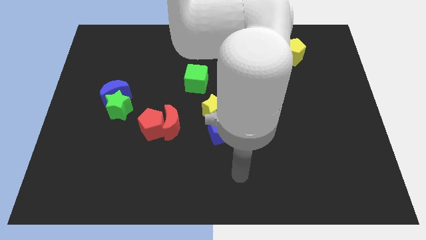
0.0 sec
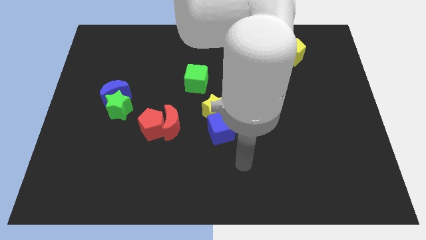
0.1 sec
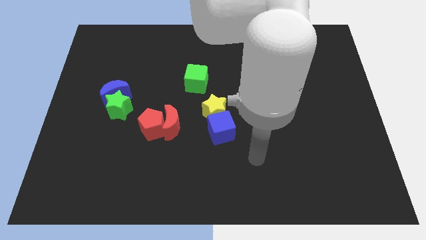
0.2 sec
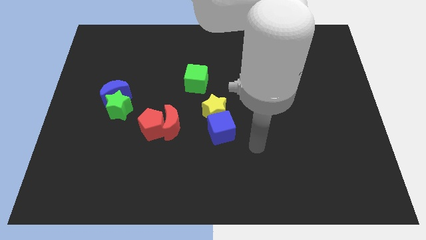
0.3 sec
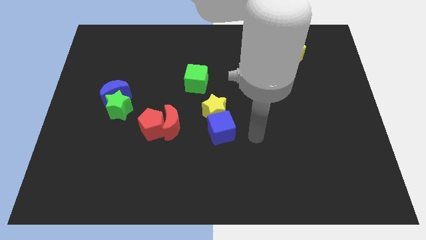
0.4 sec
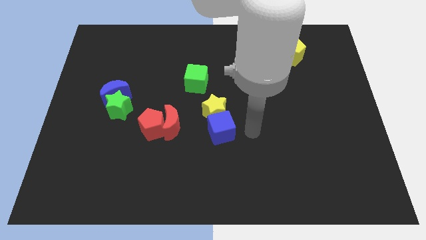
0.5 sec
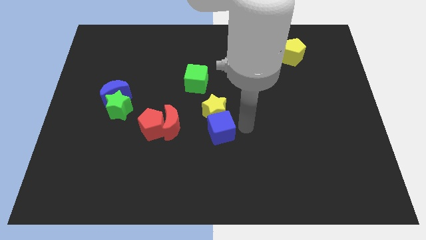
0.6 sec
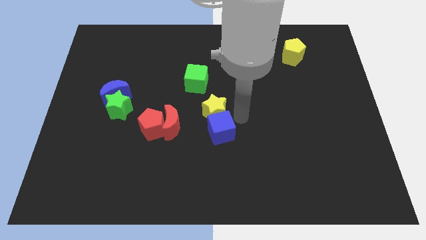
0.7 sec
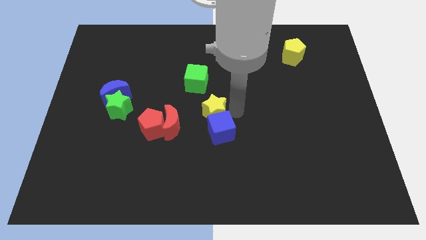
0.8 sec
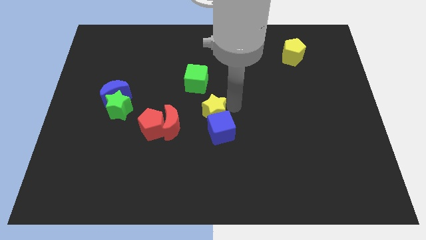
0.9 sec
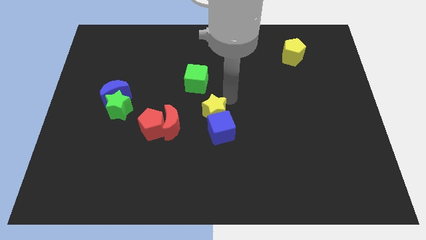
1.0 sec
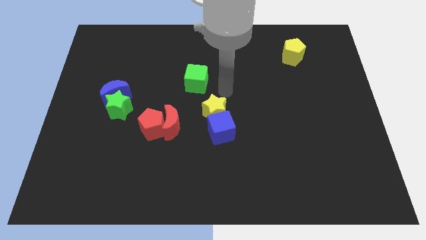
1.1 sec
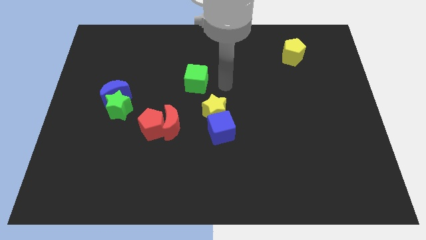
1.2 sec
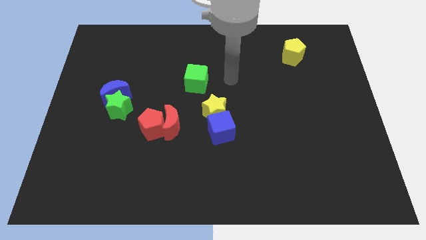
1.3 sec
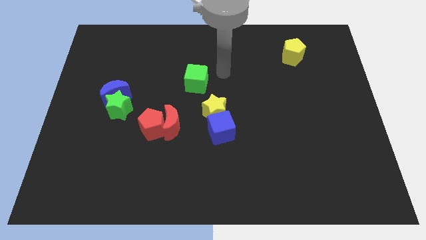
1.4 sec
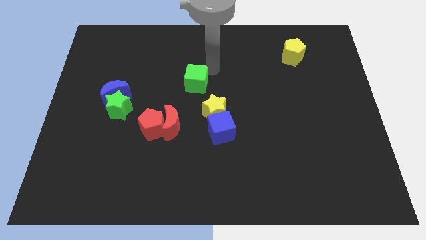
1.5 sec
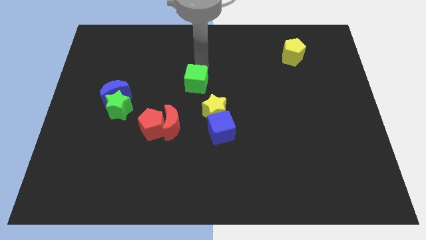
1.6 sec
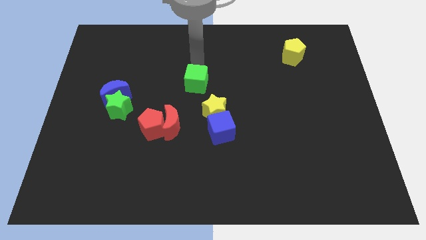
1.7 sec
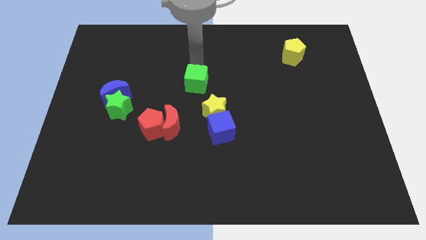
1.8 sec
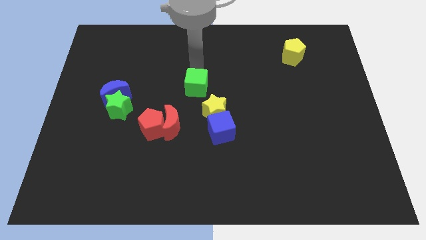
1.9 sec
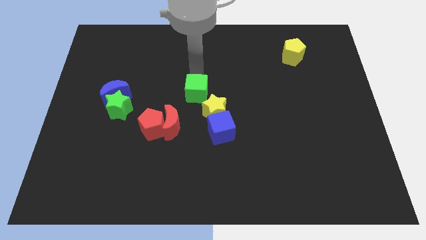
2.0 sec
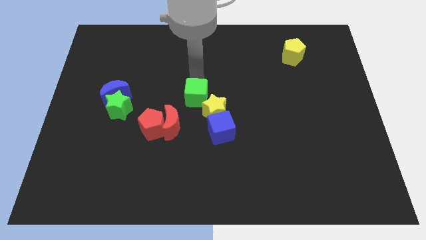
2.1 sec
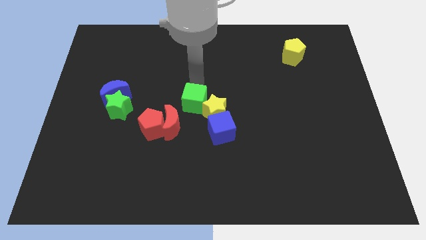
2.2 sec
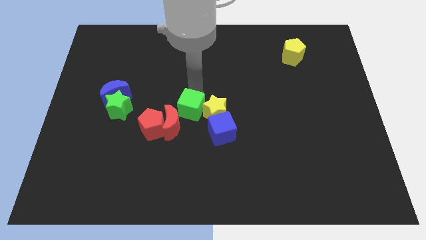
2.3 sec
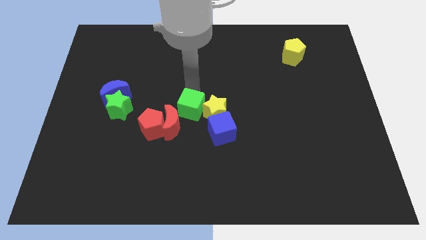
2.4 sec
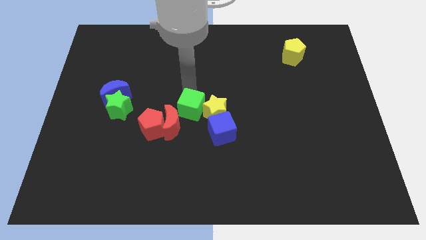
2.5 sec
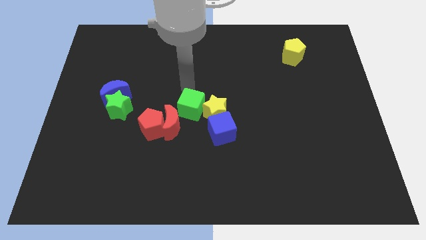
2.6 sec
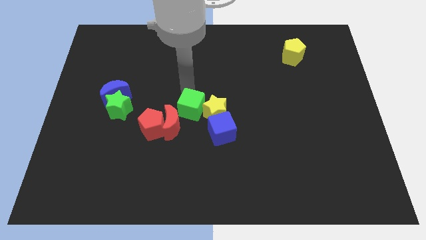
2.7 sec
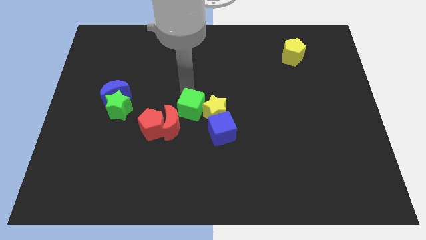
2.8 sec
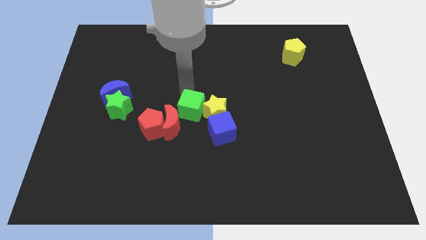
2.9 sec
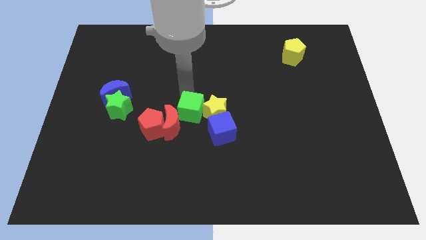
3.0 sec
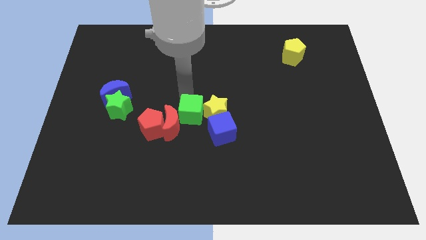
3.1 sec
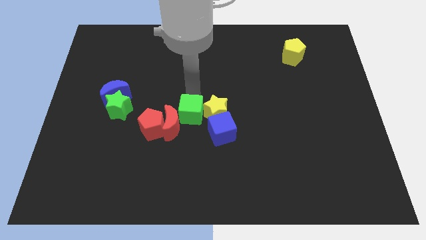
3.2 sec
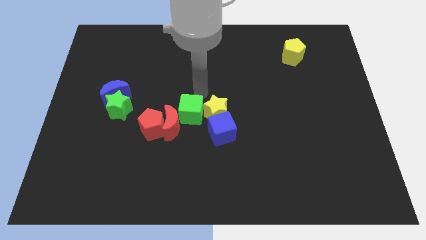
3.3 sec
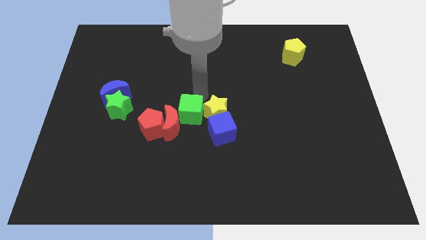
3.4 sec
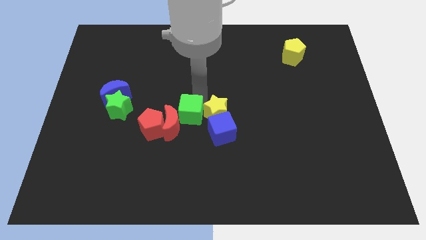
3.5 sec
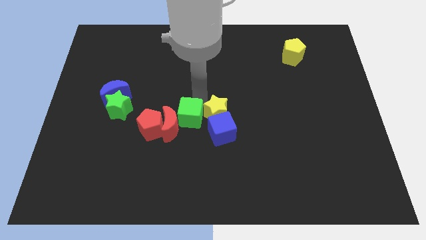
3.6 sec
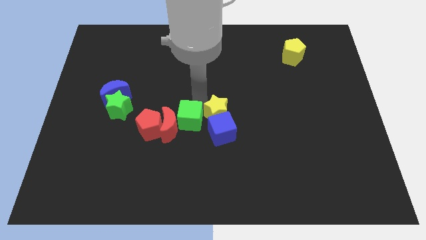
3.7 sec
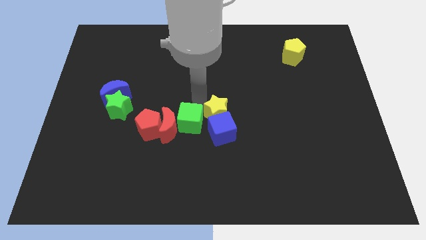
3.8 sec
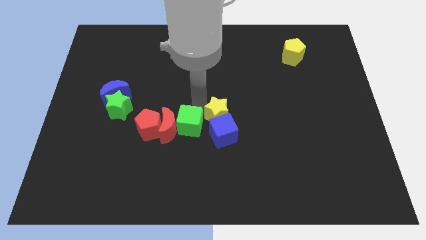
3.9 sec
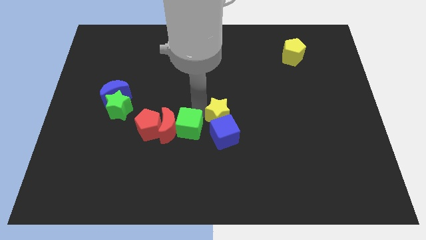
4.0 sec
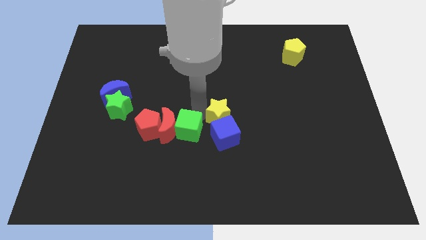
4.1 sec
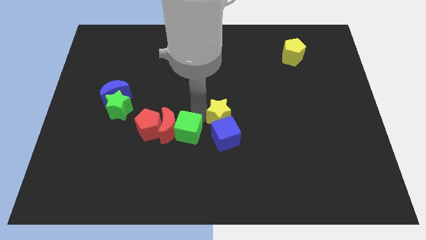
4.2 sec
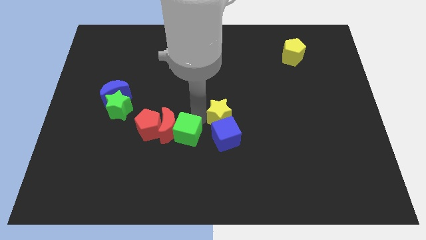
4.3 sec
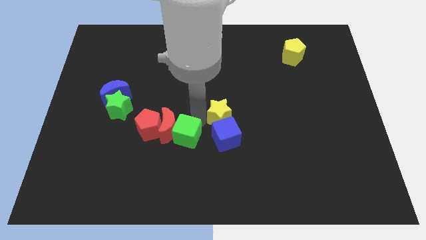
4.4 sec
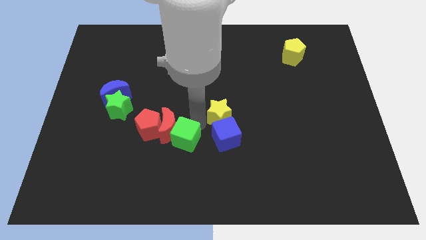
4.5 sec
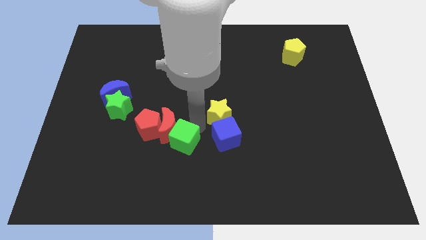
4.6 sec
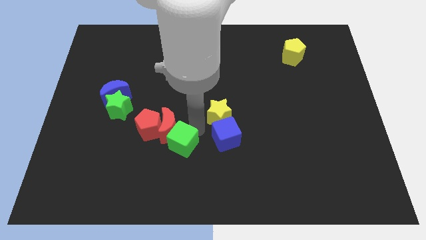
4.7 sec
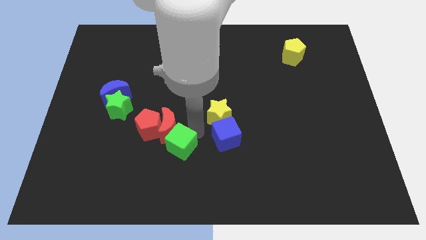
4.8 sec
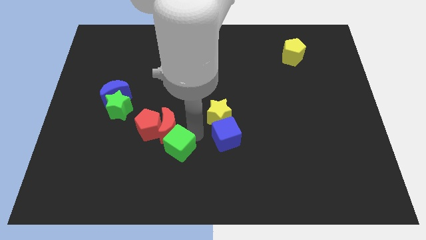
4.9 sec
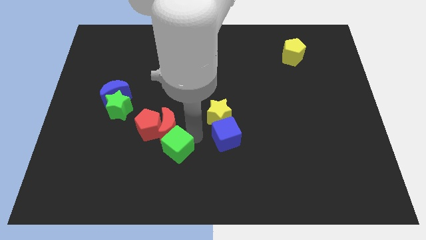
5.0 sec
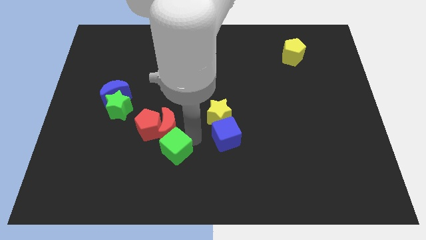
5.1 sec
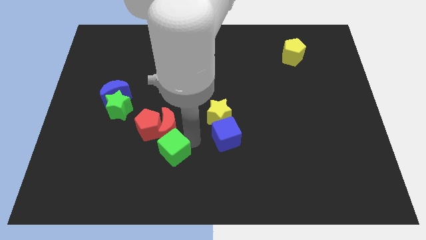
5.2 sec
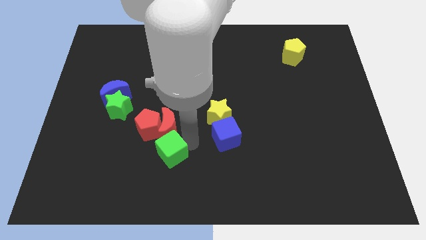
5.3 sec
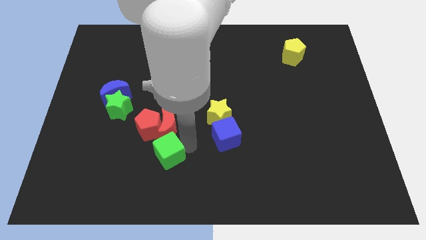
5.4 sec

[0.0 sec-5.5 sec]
put the green cube to the bottom side of the red pentagon

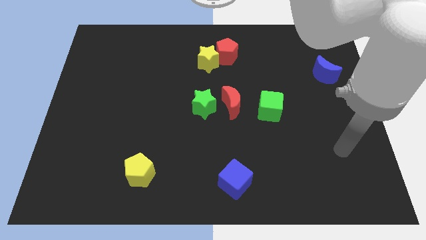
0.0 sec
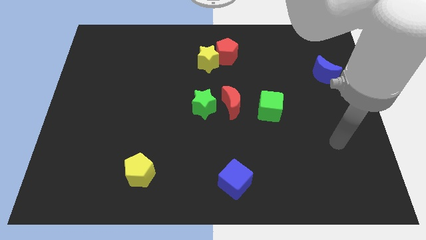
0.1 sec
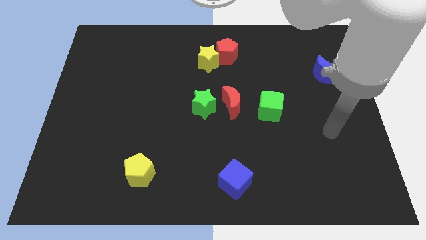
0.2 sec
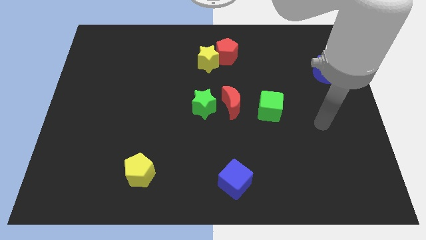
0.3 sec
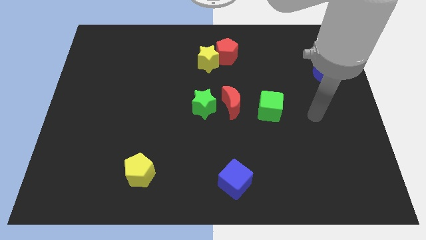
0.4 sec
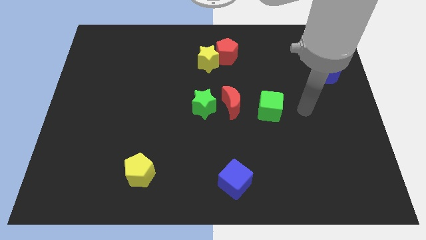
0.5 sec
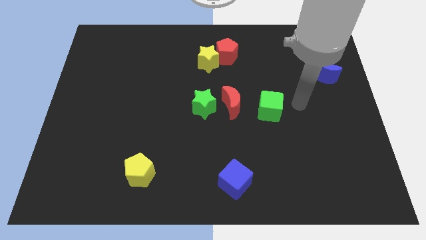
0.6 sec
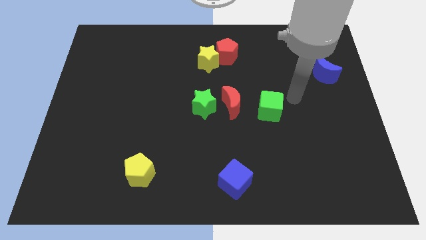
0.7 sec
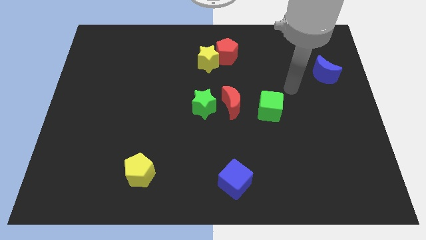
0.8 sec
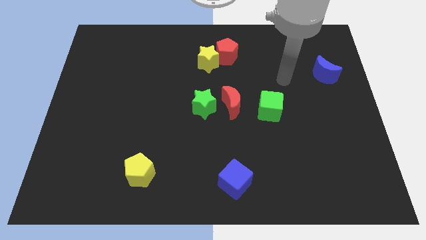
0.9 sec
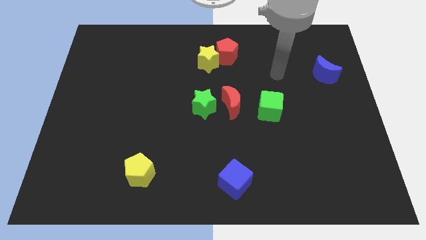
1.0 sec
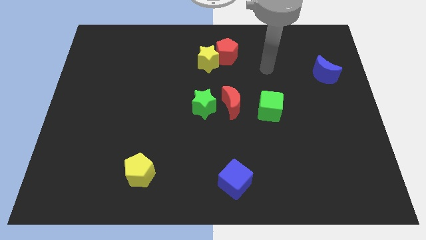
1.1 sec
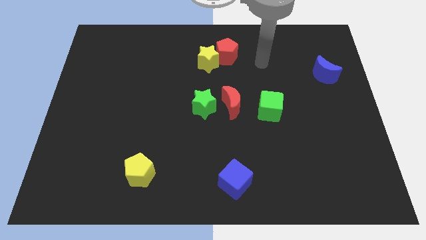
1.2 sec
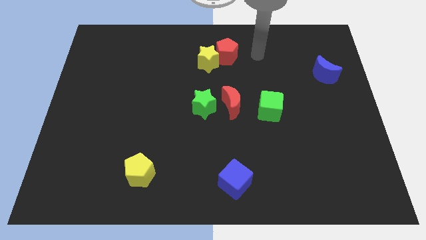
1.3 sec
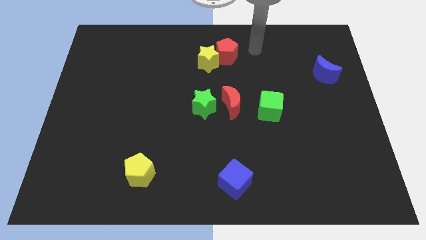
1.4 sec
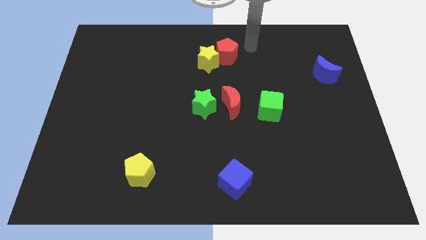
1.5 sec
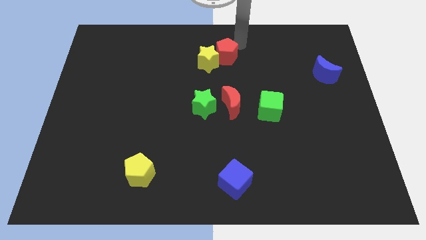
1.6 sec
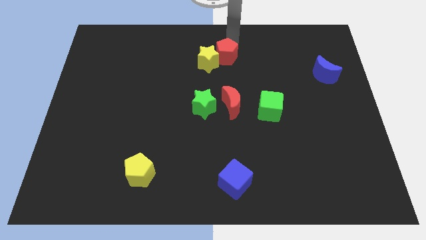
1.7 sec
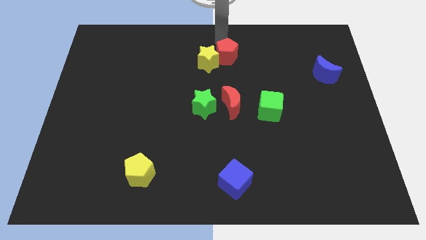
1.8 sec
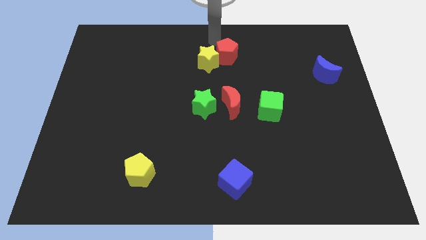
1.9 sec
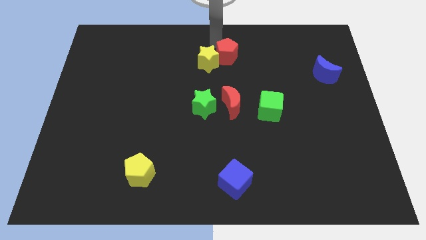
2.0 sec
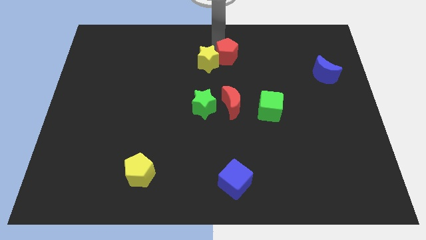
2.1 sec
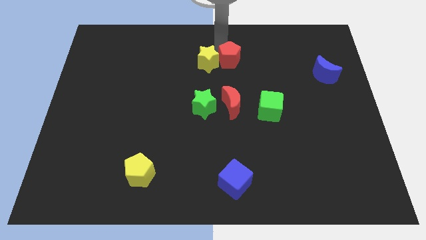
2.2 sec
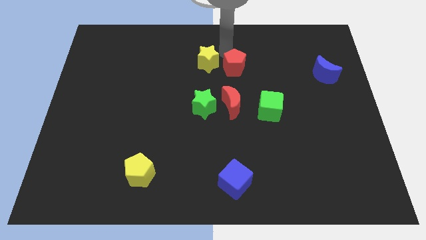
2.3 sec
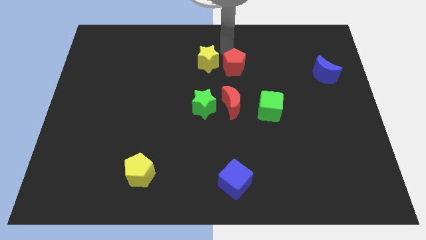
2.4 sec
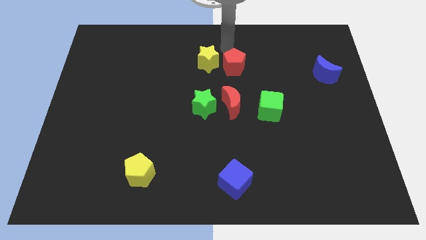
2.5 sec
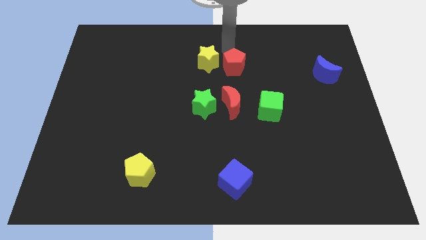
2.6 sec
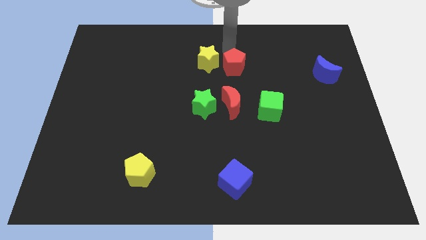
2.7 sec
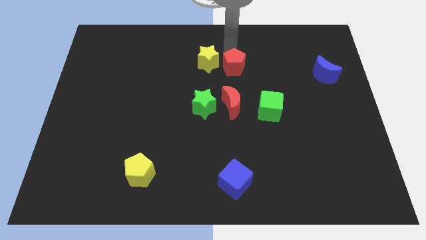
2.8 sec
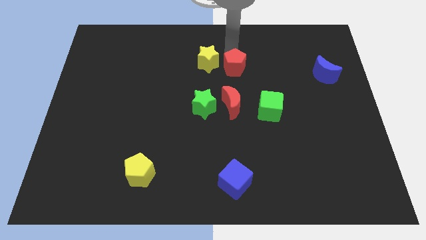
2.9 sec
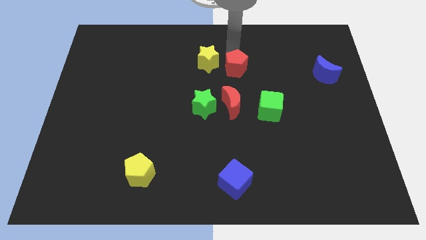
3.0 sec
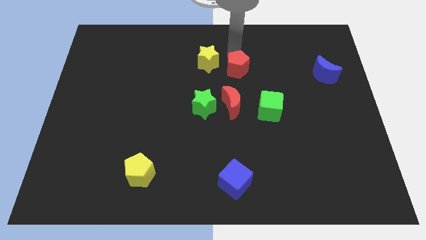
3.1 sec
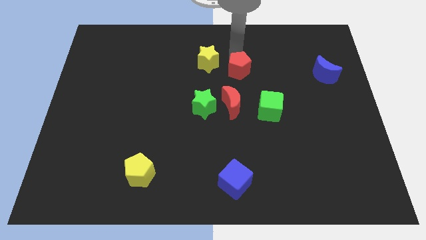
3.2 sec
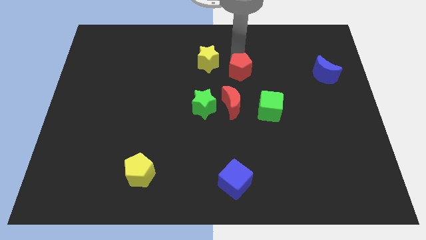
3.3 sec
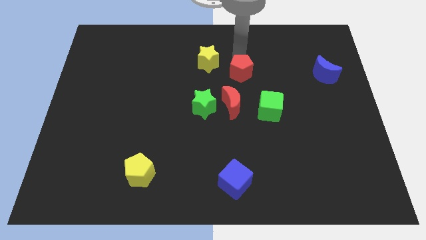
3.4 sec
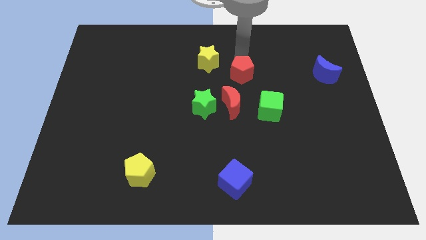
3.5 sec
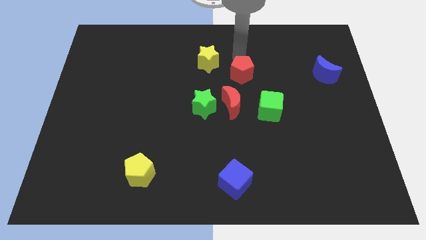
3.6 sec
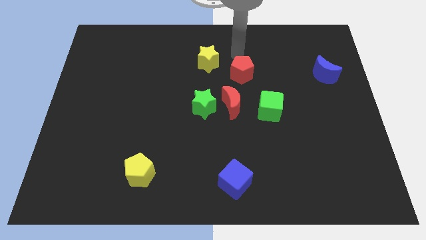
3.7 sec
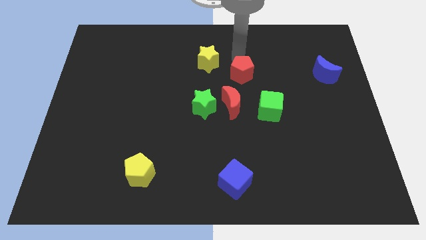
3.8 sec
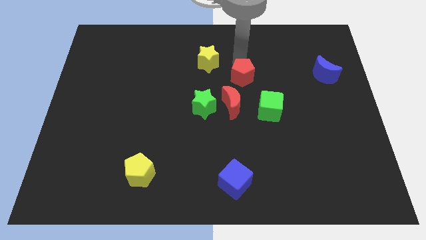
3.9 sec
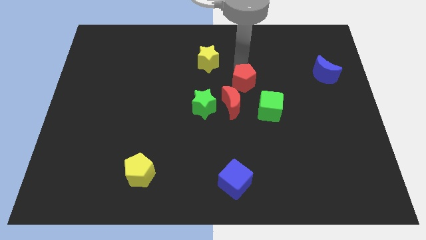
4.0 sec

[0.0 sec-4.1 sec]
move the red pentagon to the top left side of the green cube
